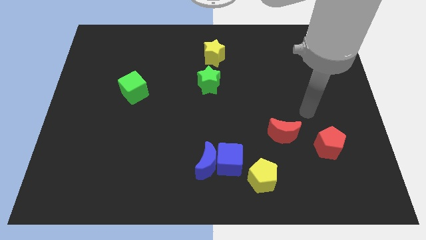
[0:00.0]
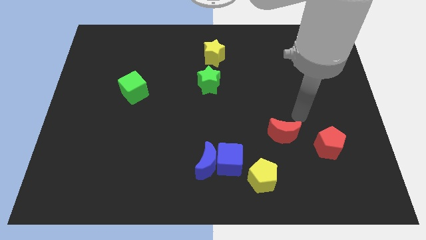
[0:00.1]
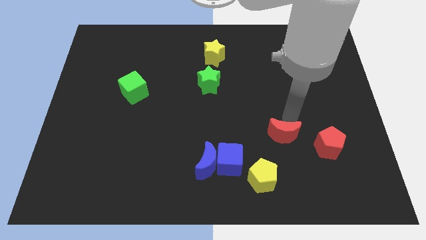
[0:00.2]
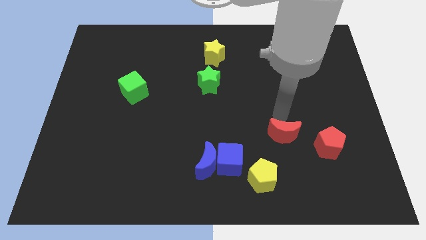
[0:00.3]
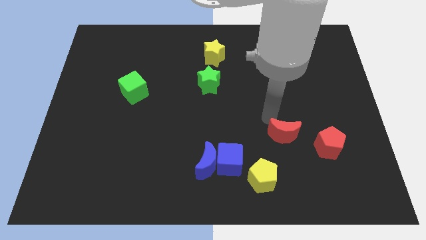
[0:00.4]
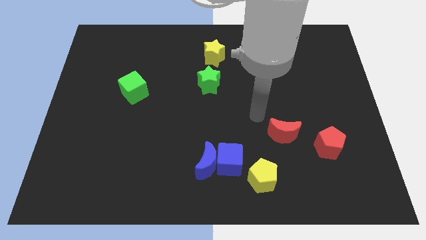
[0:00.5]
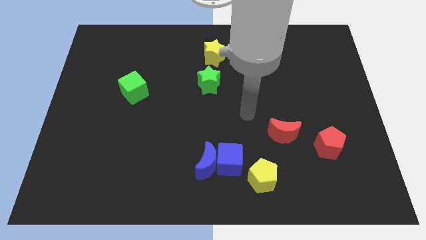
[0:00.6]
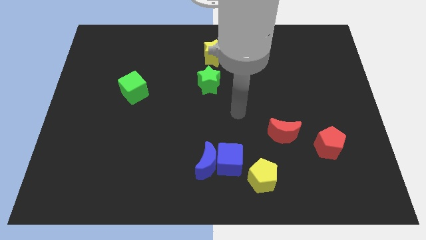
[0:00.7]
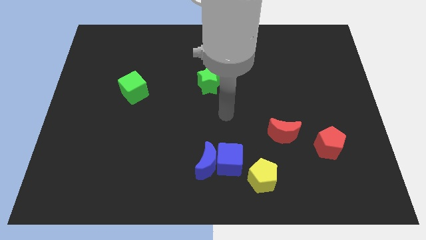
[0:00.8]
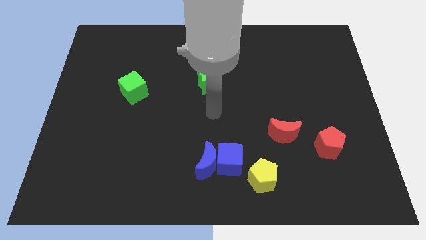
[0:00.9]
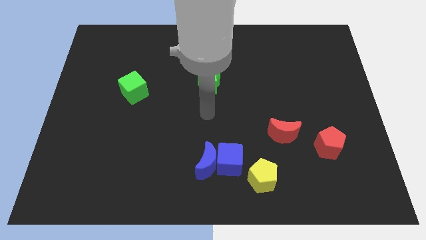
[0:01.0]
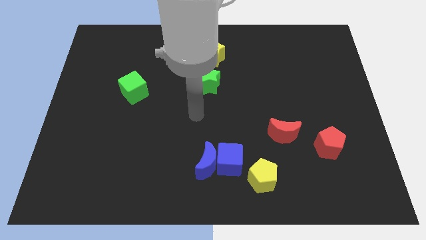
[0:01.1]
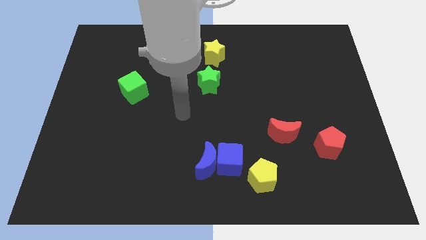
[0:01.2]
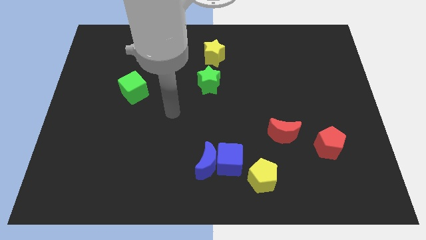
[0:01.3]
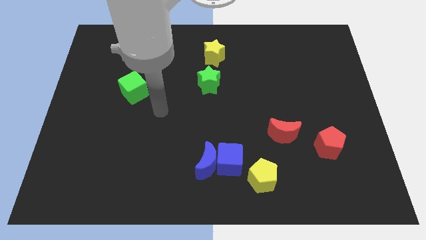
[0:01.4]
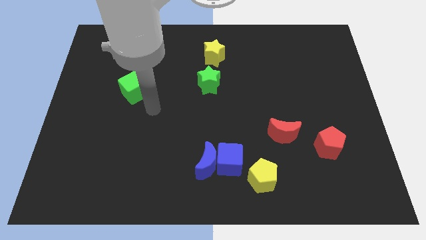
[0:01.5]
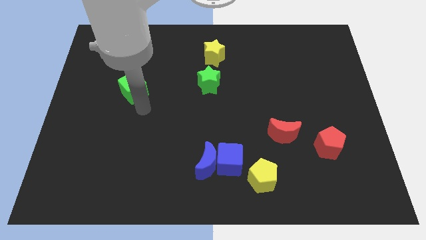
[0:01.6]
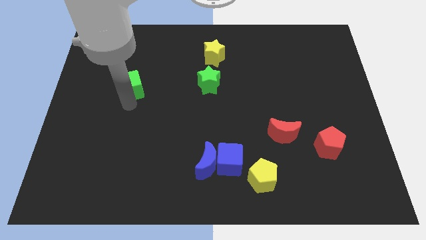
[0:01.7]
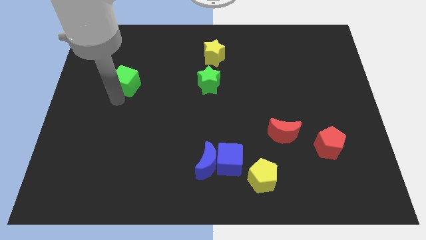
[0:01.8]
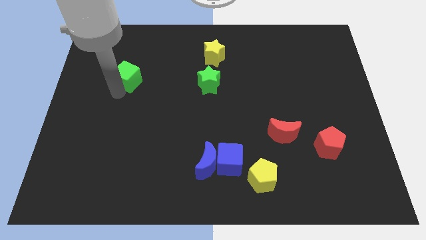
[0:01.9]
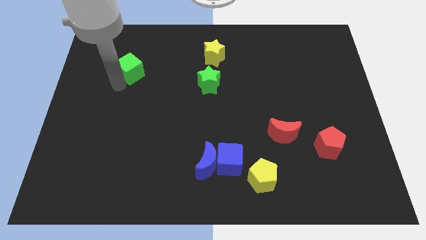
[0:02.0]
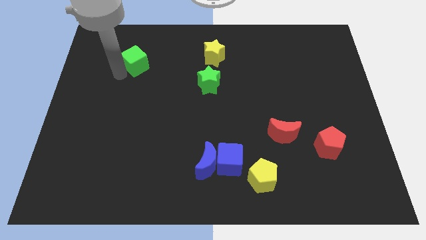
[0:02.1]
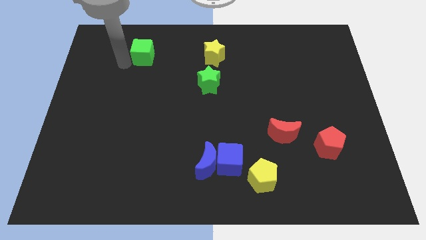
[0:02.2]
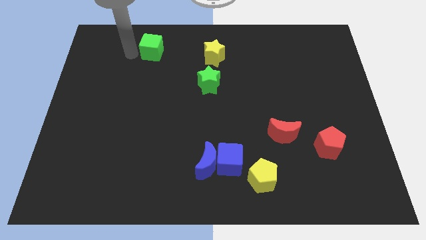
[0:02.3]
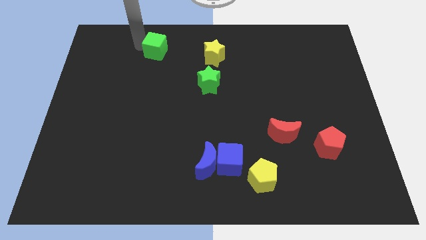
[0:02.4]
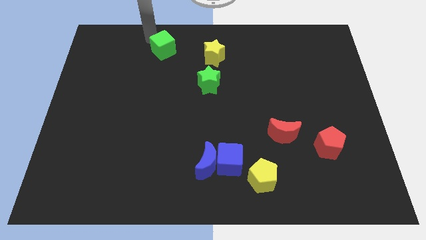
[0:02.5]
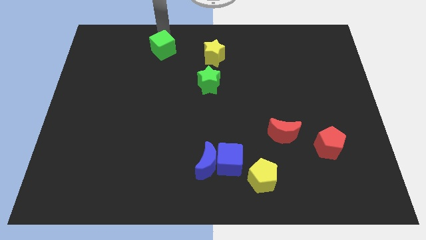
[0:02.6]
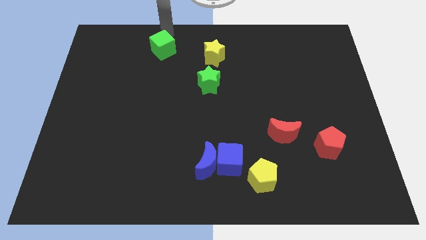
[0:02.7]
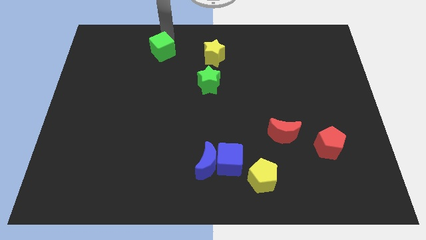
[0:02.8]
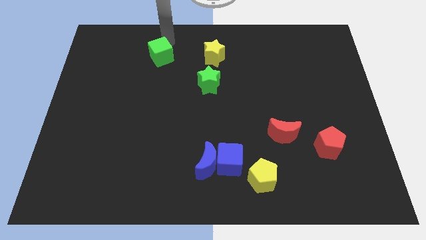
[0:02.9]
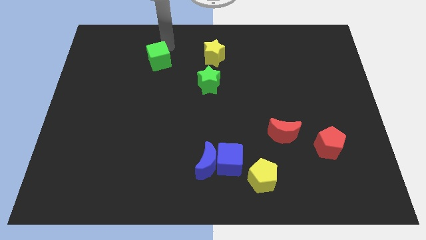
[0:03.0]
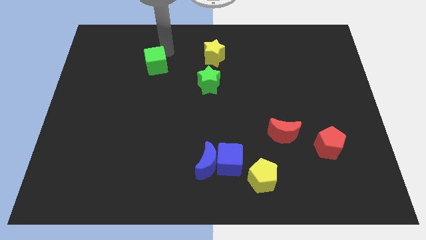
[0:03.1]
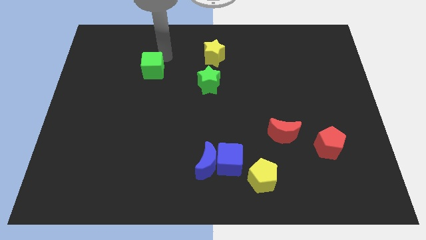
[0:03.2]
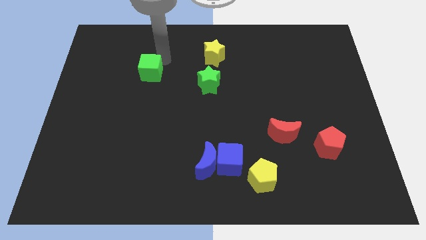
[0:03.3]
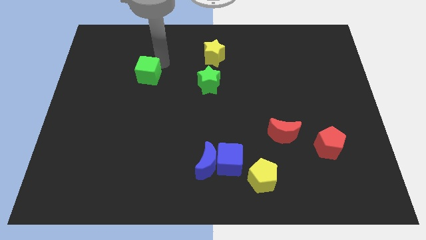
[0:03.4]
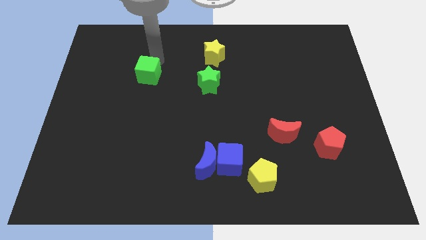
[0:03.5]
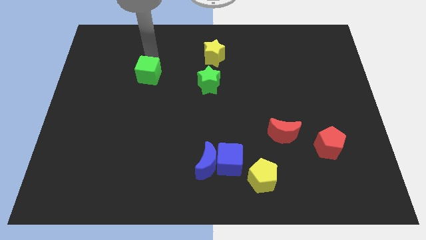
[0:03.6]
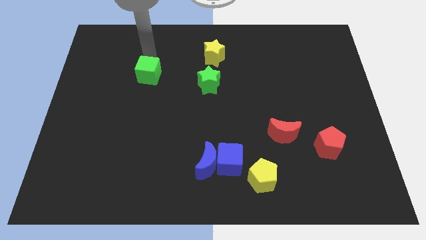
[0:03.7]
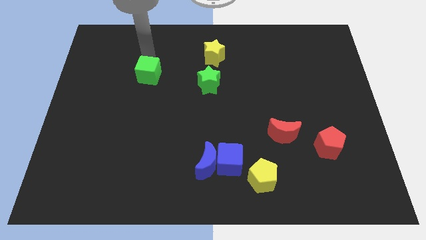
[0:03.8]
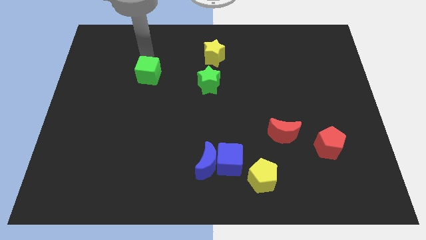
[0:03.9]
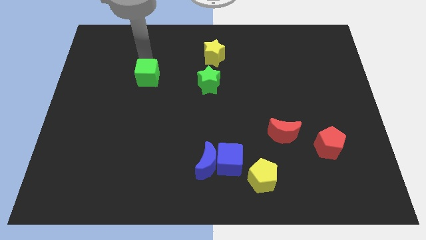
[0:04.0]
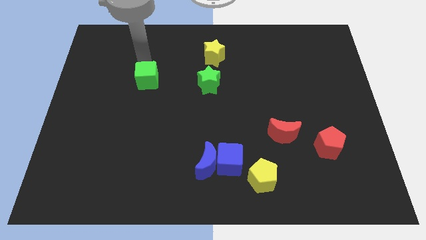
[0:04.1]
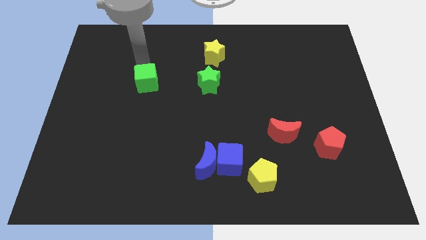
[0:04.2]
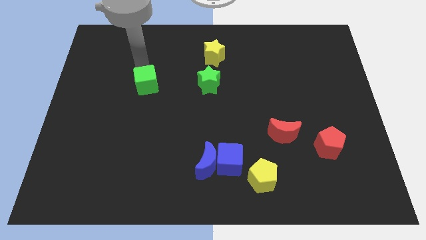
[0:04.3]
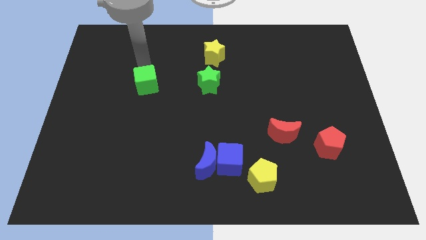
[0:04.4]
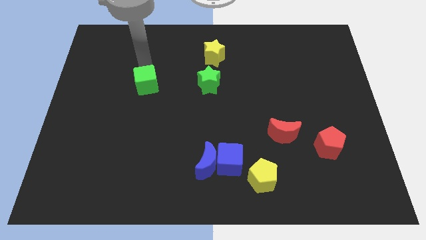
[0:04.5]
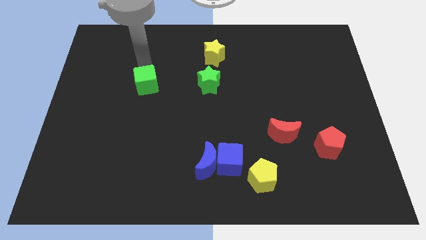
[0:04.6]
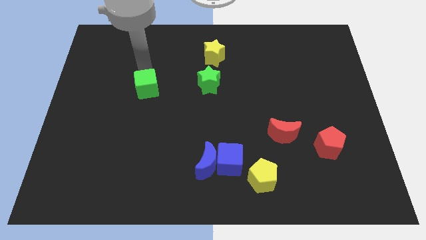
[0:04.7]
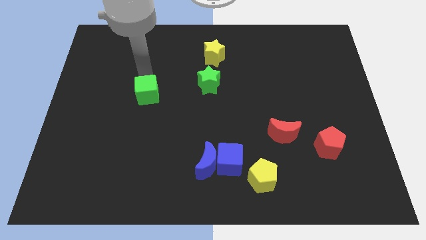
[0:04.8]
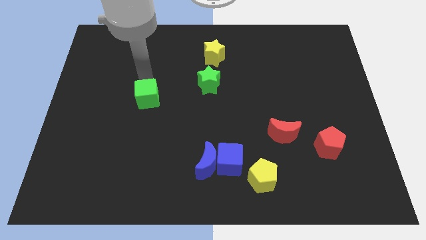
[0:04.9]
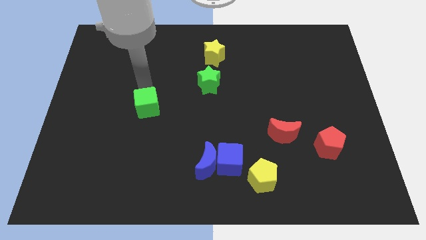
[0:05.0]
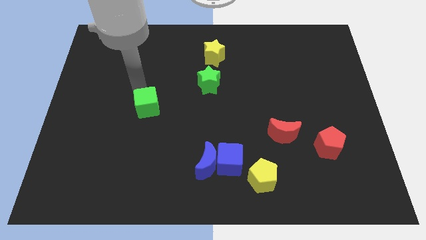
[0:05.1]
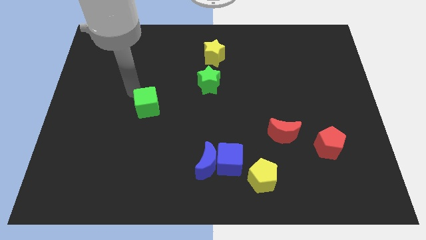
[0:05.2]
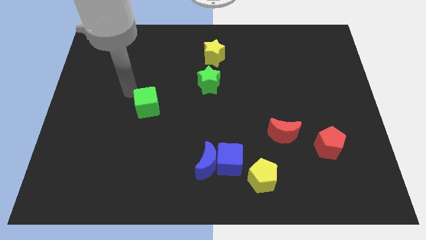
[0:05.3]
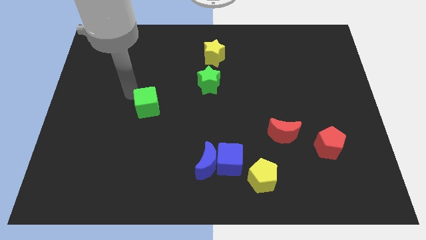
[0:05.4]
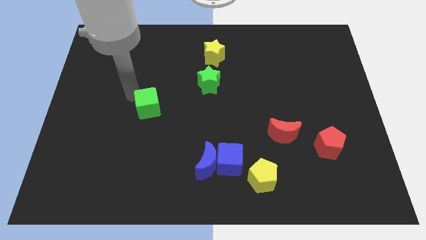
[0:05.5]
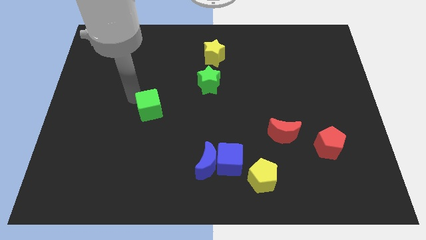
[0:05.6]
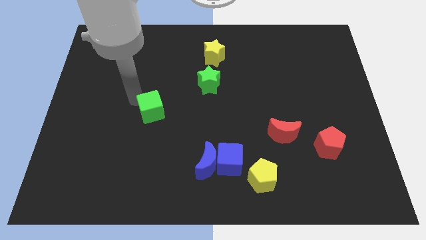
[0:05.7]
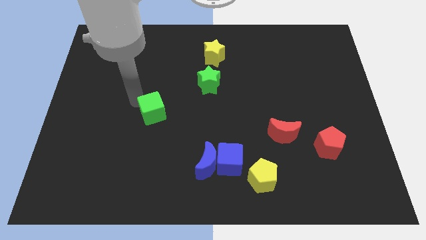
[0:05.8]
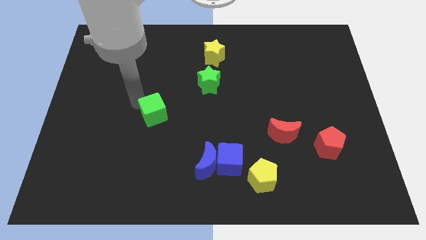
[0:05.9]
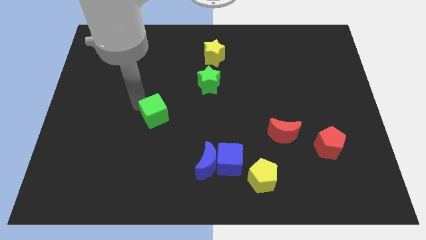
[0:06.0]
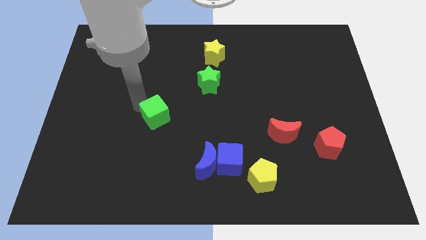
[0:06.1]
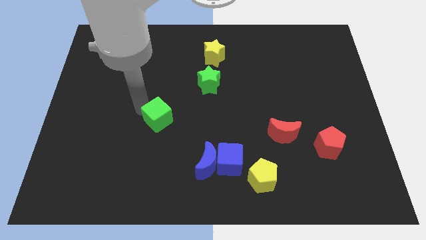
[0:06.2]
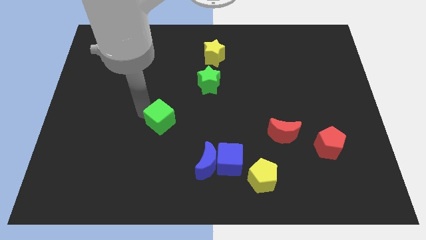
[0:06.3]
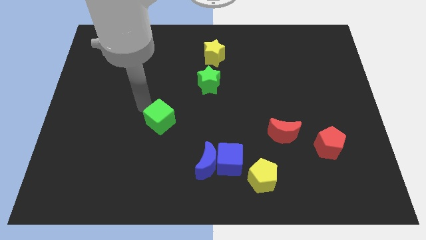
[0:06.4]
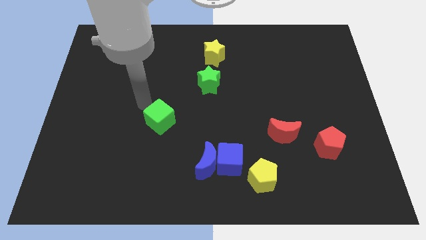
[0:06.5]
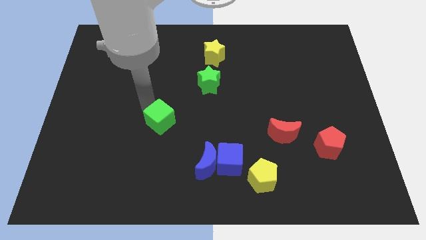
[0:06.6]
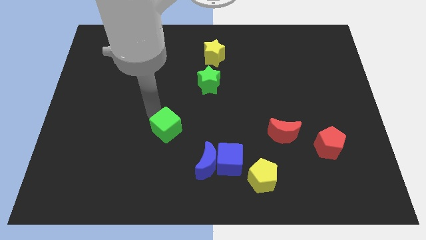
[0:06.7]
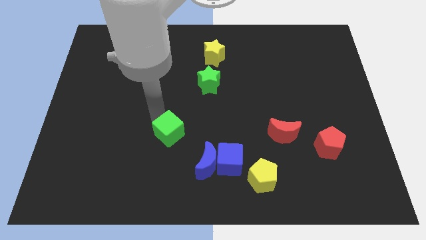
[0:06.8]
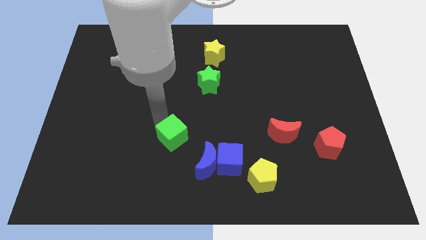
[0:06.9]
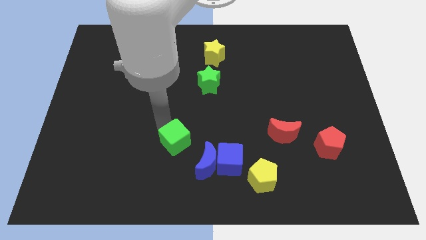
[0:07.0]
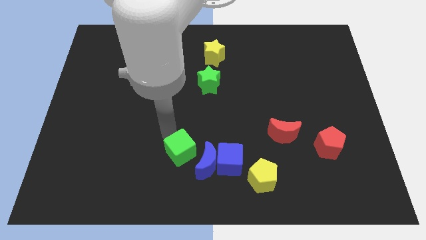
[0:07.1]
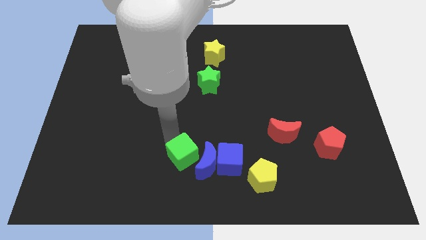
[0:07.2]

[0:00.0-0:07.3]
slide the green cube next to the blue moon

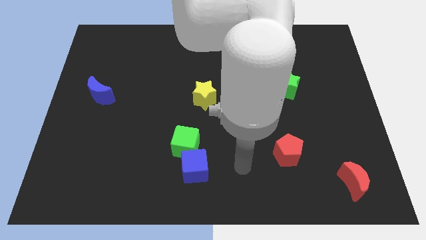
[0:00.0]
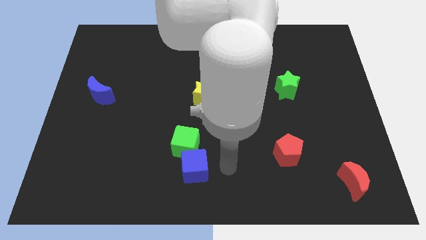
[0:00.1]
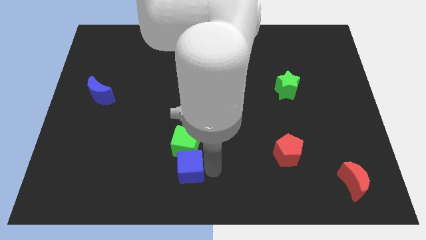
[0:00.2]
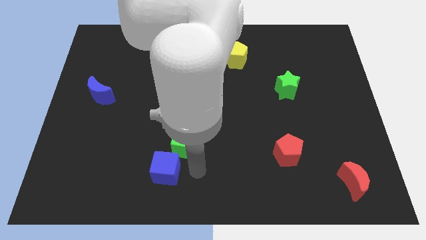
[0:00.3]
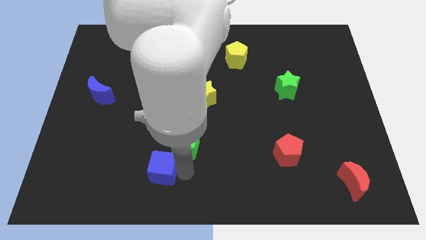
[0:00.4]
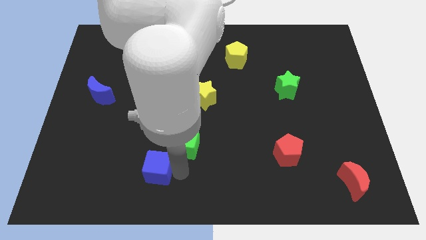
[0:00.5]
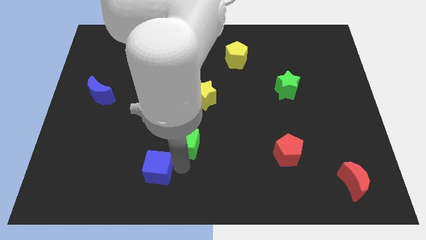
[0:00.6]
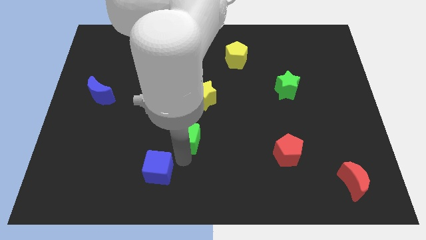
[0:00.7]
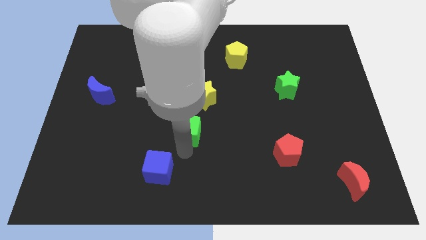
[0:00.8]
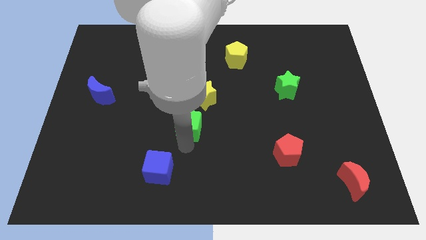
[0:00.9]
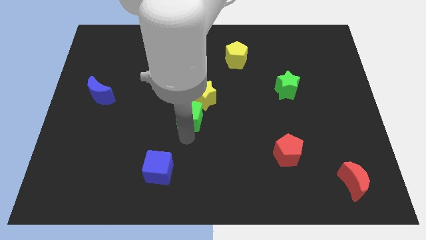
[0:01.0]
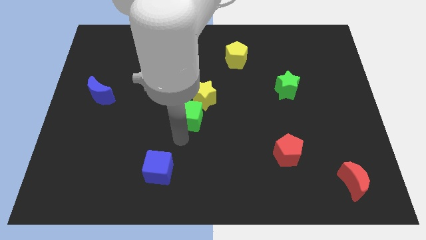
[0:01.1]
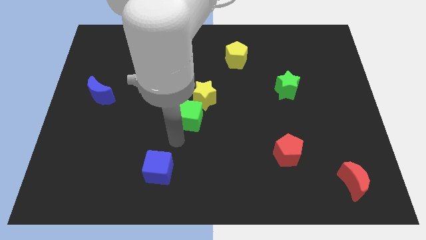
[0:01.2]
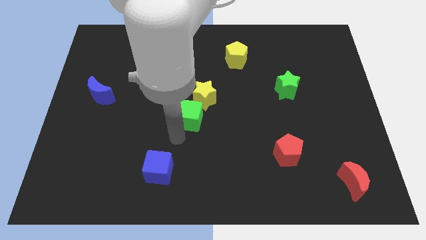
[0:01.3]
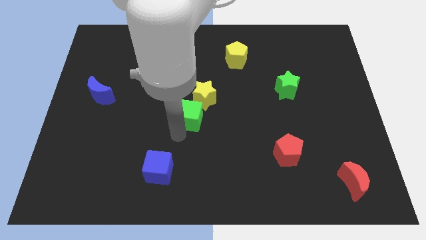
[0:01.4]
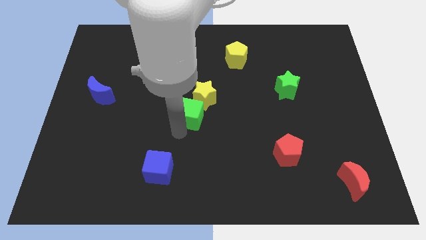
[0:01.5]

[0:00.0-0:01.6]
slide the green cube close to the yellow star
